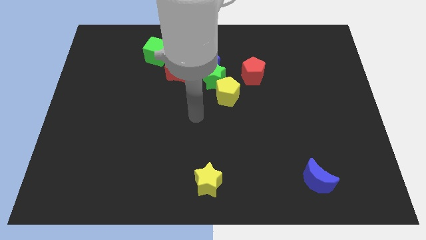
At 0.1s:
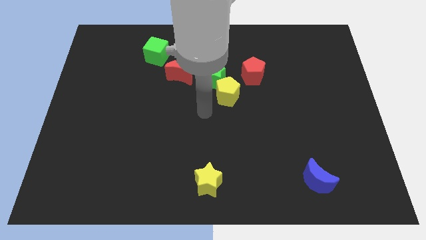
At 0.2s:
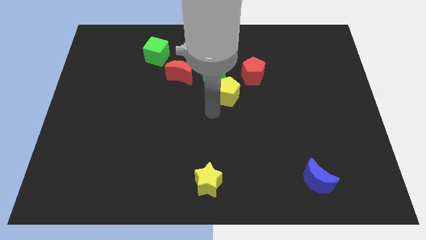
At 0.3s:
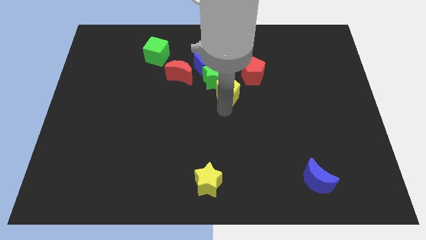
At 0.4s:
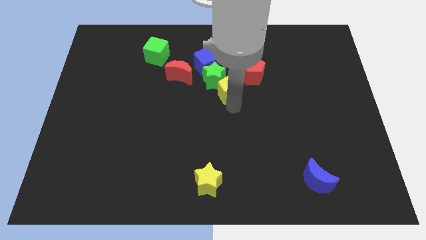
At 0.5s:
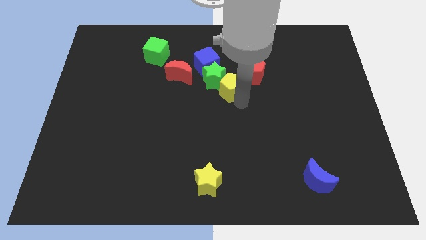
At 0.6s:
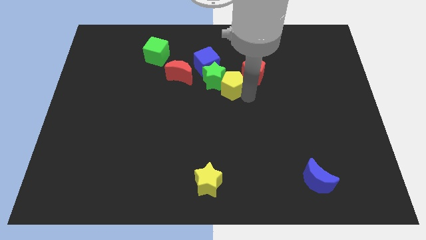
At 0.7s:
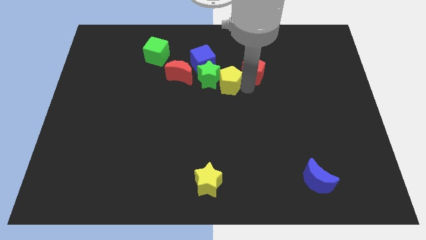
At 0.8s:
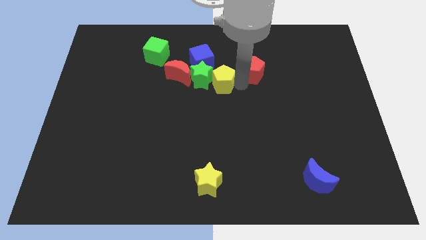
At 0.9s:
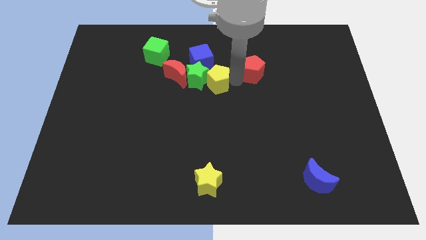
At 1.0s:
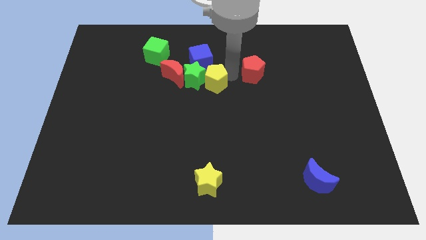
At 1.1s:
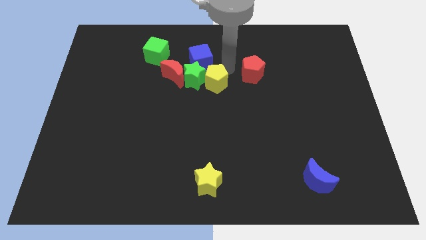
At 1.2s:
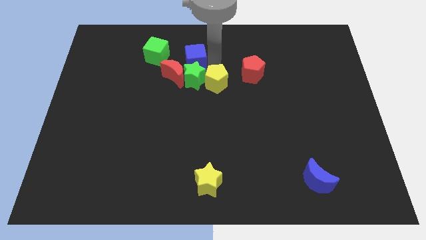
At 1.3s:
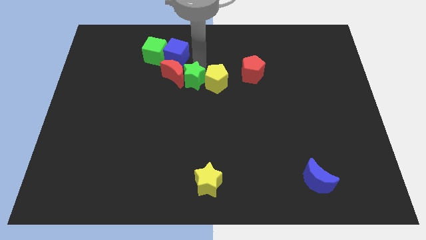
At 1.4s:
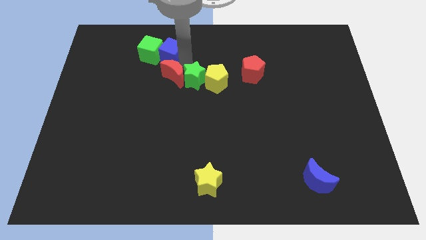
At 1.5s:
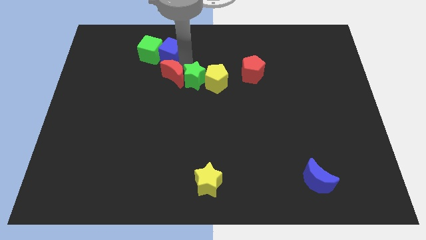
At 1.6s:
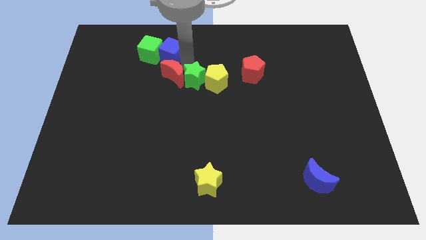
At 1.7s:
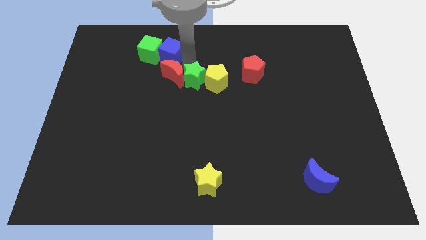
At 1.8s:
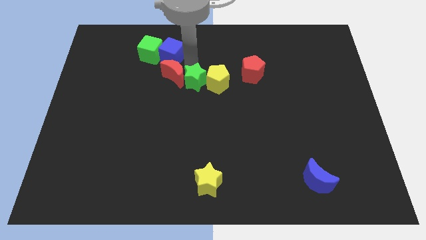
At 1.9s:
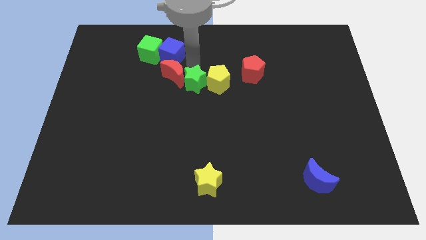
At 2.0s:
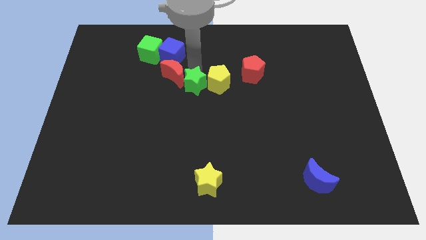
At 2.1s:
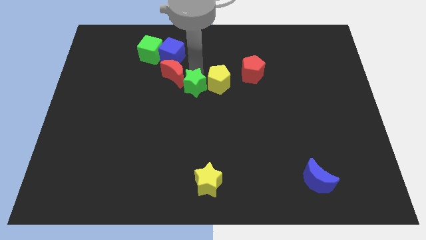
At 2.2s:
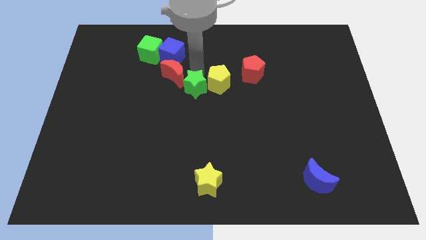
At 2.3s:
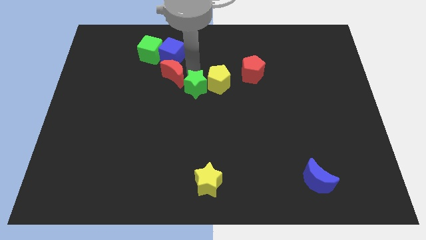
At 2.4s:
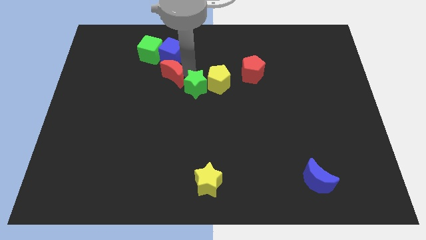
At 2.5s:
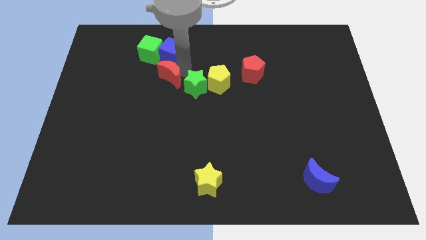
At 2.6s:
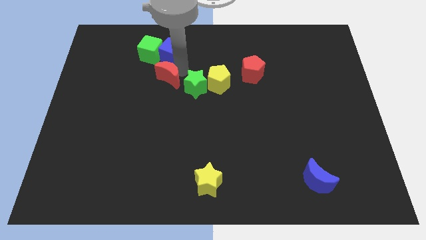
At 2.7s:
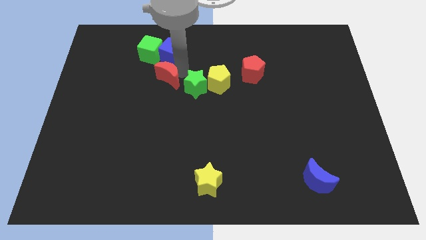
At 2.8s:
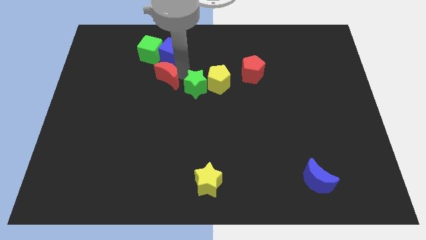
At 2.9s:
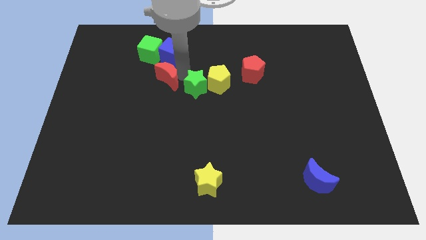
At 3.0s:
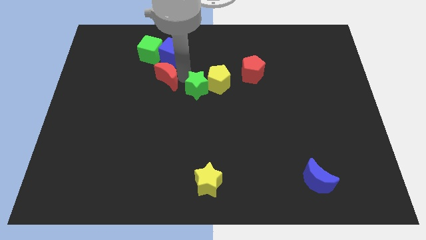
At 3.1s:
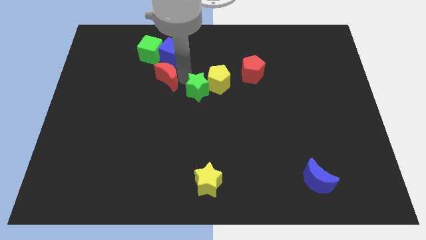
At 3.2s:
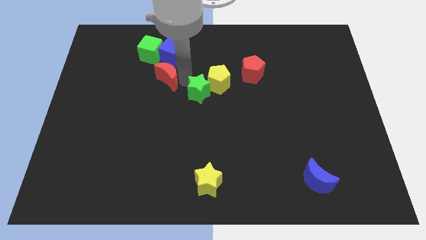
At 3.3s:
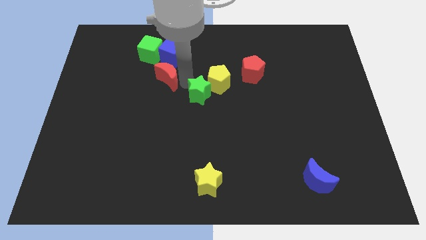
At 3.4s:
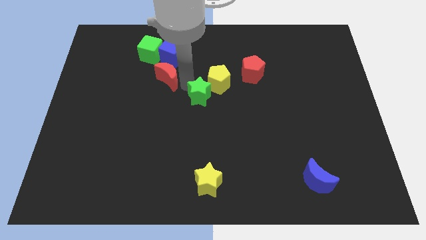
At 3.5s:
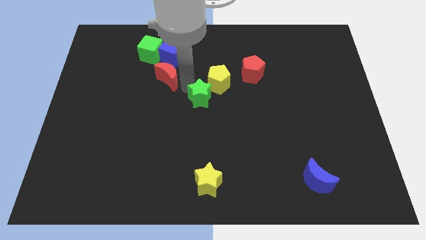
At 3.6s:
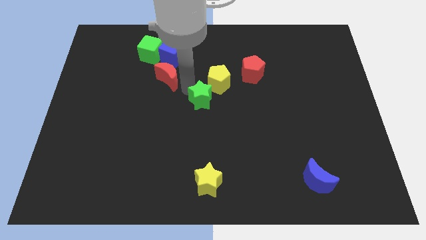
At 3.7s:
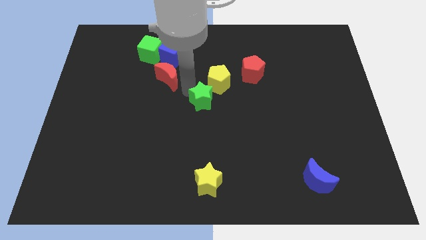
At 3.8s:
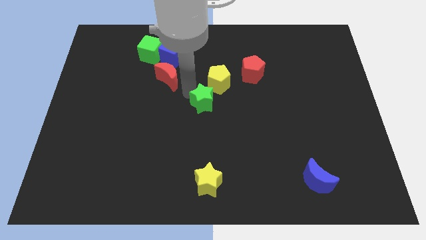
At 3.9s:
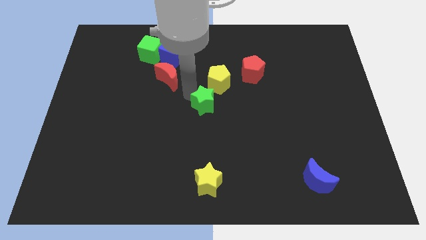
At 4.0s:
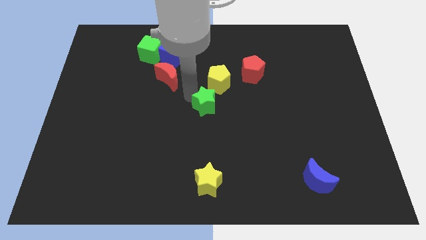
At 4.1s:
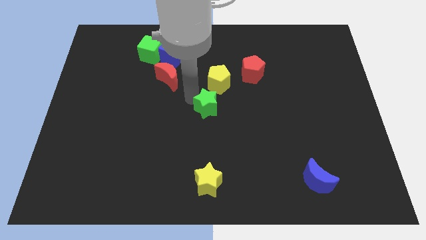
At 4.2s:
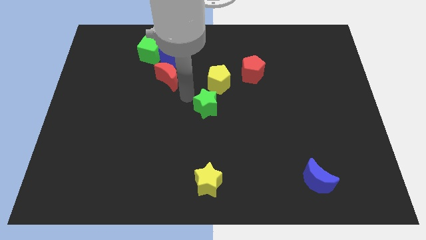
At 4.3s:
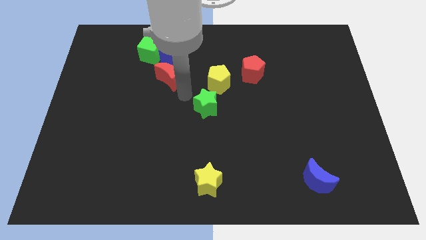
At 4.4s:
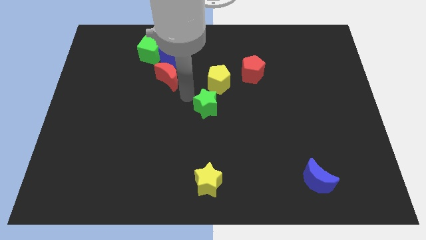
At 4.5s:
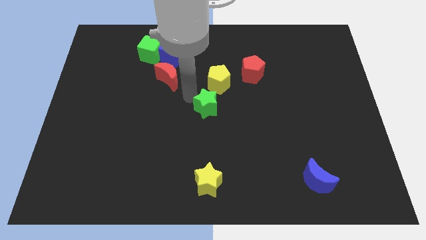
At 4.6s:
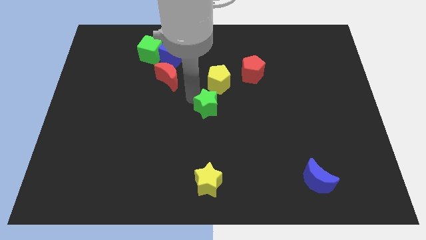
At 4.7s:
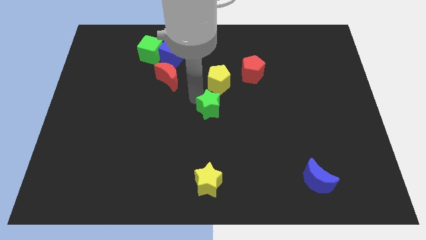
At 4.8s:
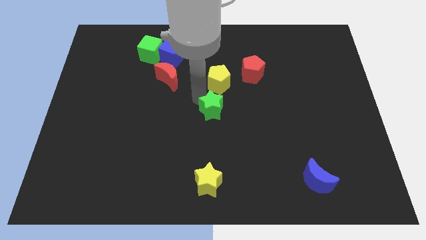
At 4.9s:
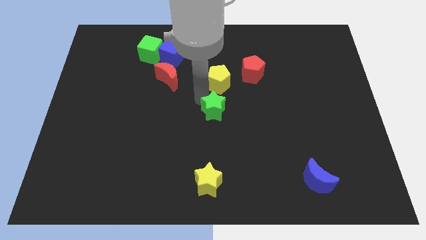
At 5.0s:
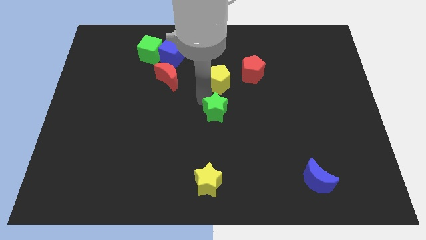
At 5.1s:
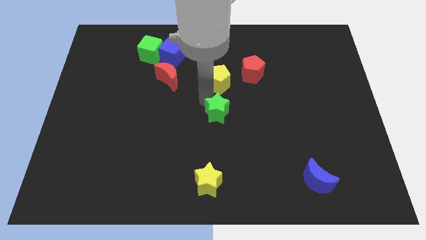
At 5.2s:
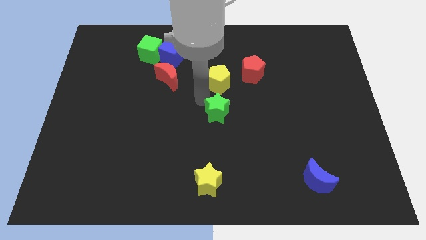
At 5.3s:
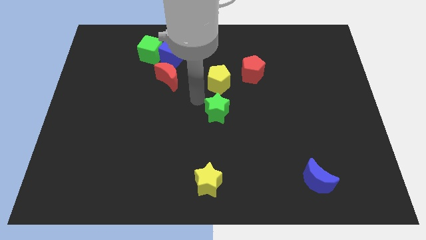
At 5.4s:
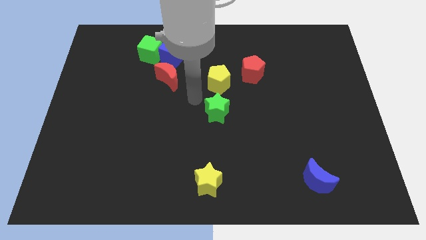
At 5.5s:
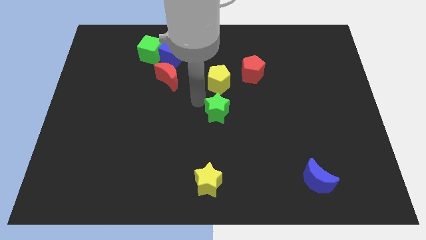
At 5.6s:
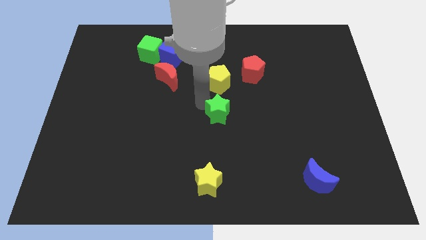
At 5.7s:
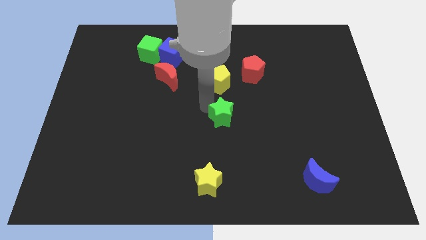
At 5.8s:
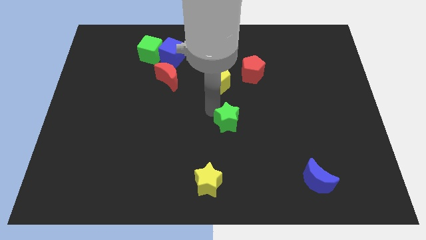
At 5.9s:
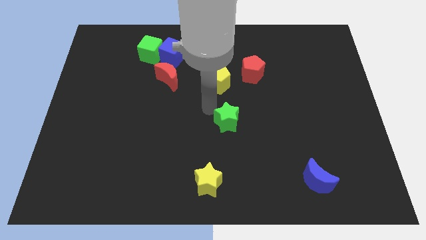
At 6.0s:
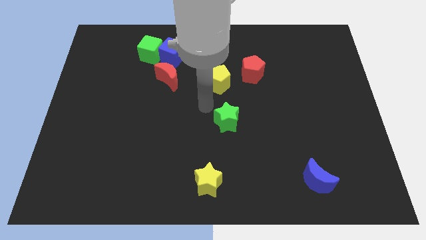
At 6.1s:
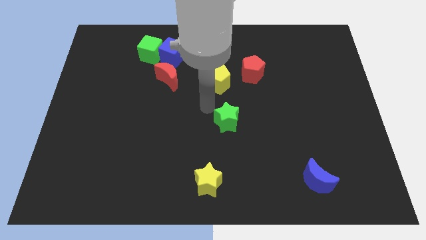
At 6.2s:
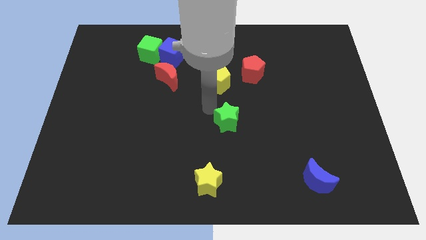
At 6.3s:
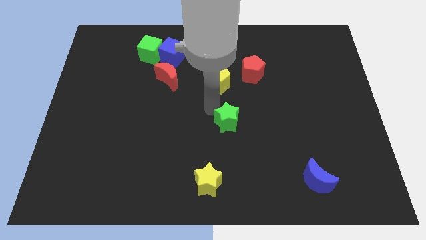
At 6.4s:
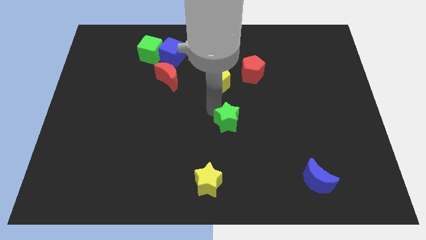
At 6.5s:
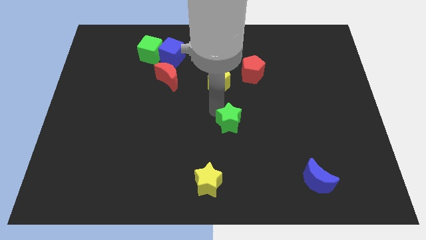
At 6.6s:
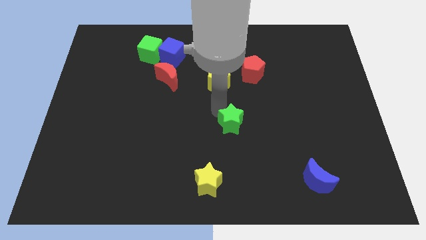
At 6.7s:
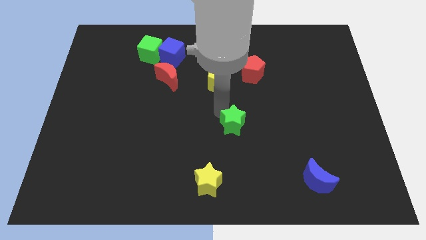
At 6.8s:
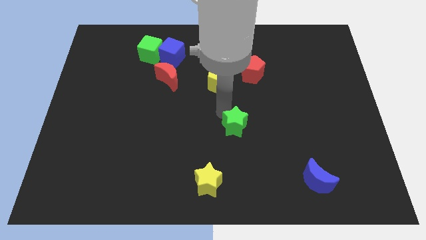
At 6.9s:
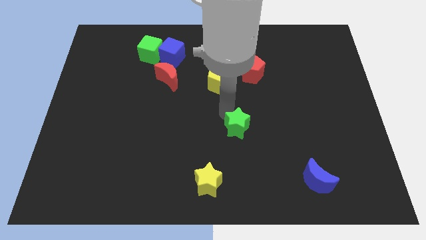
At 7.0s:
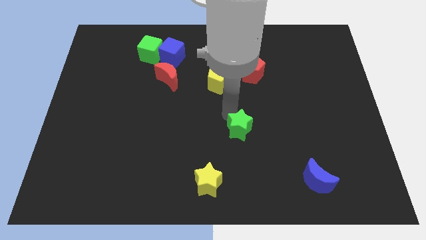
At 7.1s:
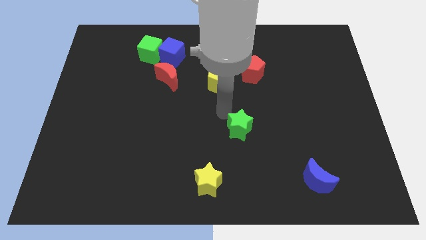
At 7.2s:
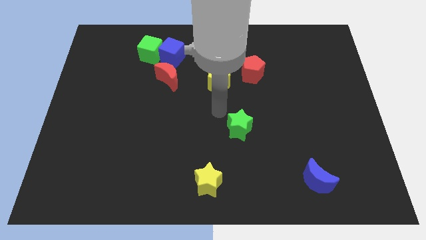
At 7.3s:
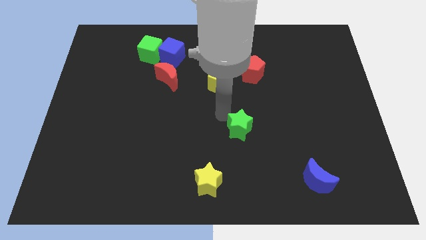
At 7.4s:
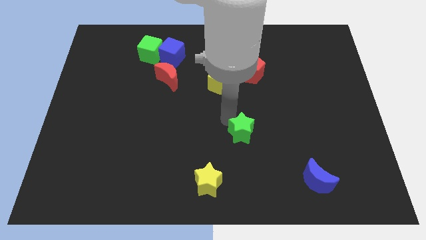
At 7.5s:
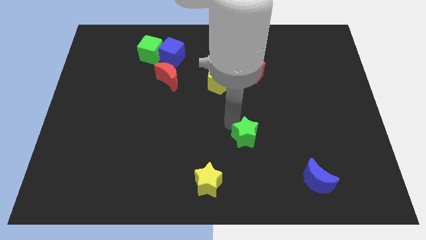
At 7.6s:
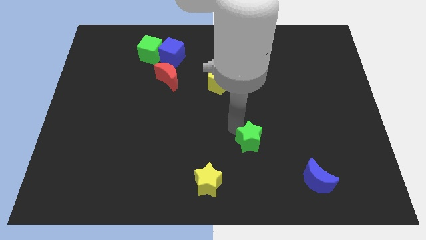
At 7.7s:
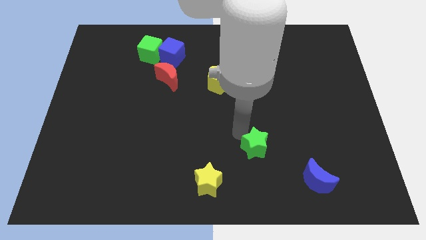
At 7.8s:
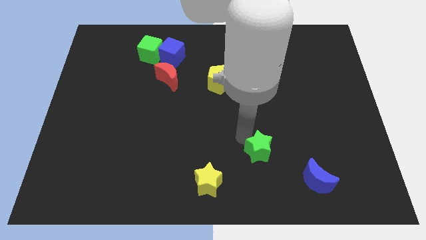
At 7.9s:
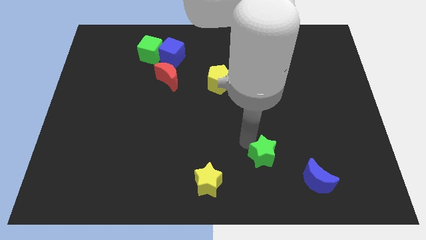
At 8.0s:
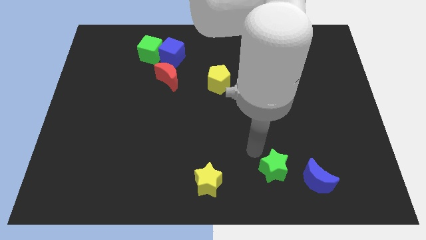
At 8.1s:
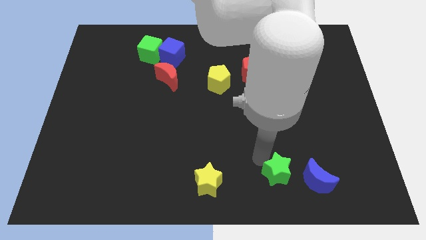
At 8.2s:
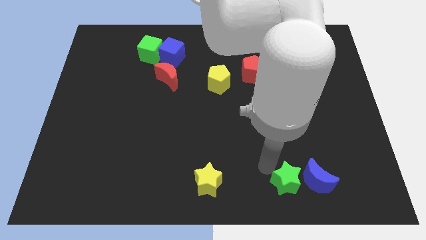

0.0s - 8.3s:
slide the green star close to the blue moon
